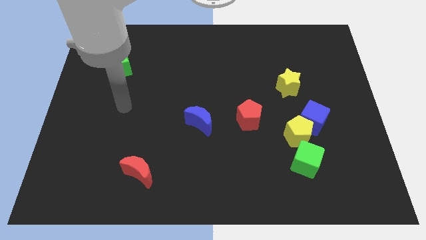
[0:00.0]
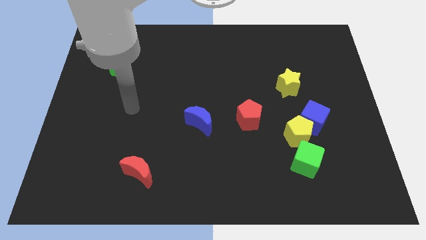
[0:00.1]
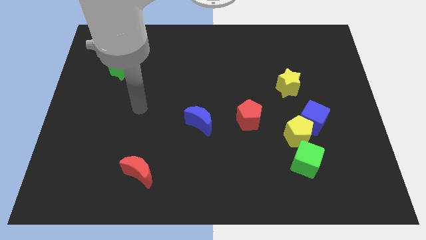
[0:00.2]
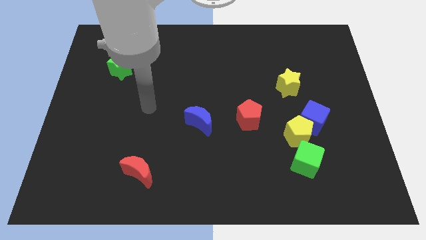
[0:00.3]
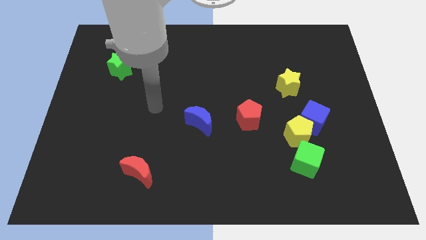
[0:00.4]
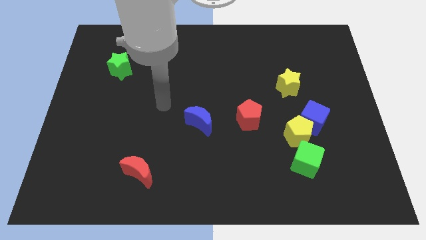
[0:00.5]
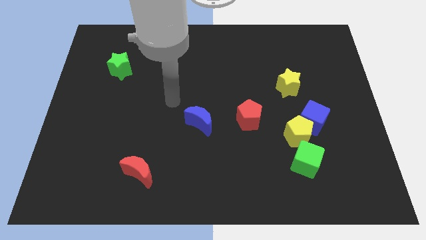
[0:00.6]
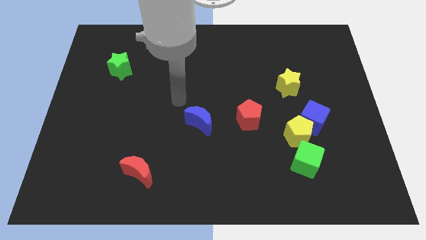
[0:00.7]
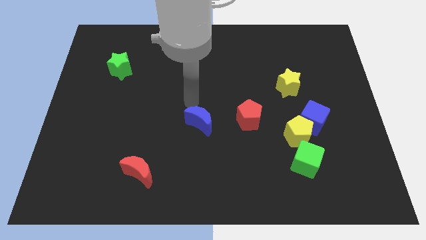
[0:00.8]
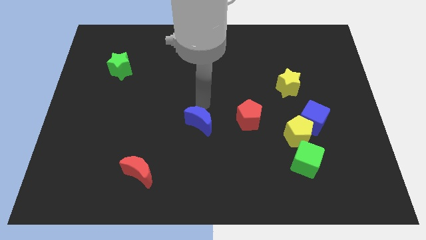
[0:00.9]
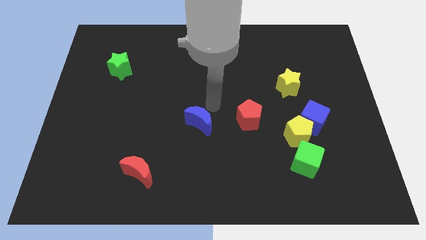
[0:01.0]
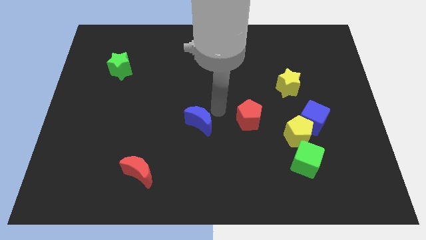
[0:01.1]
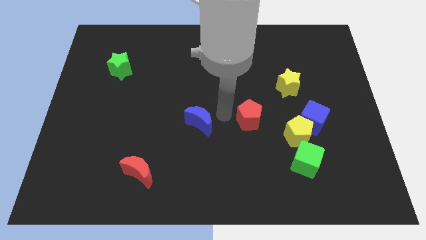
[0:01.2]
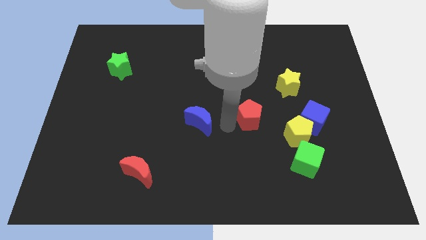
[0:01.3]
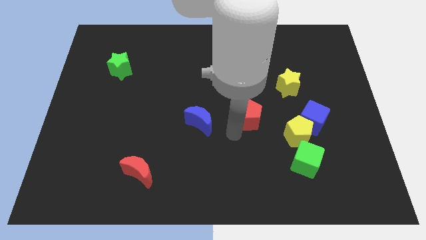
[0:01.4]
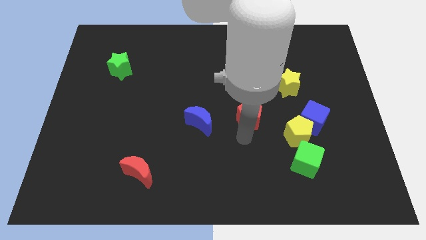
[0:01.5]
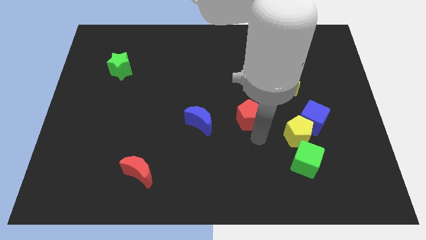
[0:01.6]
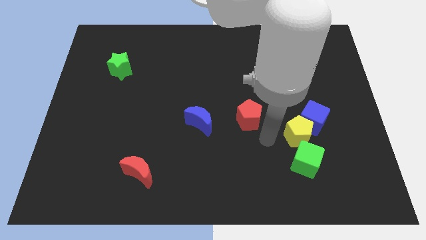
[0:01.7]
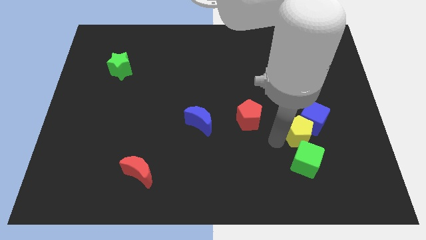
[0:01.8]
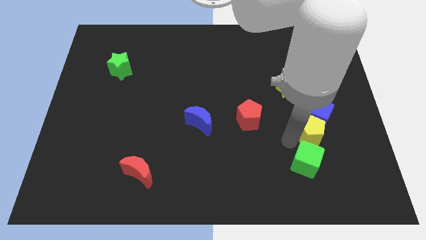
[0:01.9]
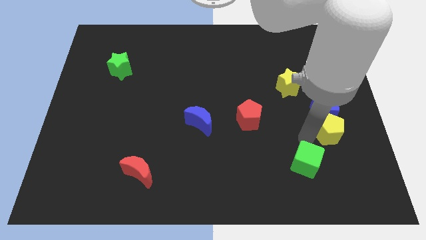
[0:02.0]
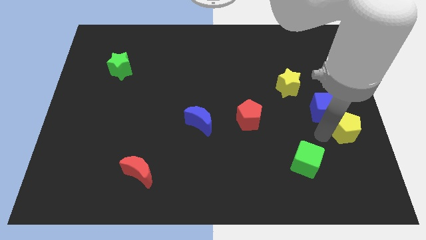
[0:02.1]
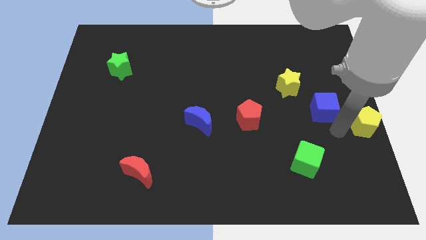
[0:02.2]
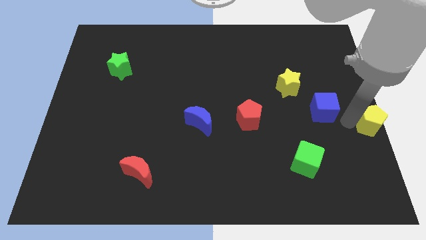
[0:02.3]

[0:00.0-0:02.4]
move the blue cube away from the yellow pentagon

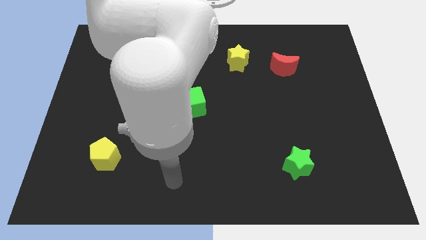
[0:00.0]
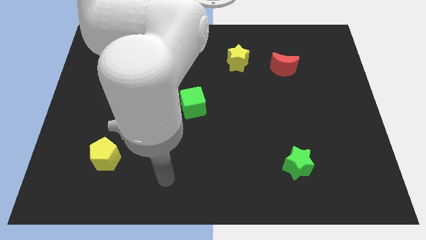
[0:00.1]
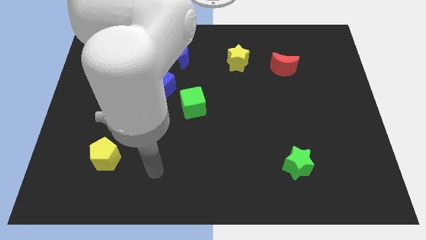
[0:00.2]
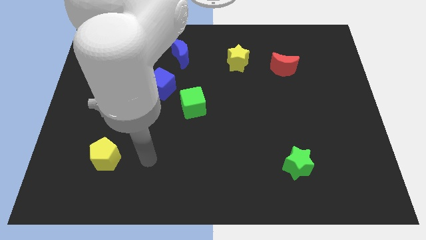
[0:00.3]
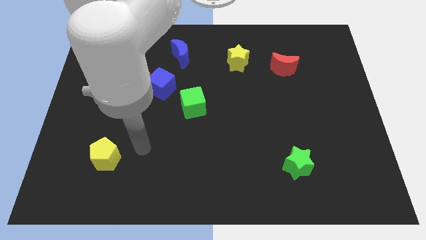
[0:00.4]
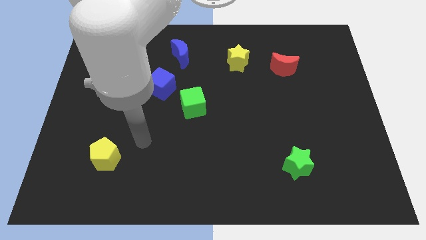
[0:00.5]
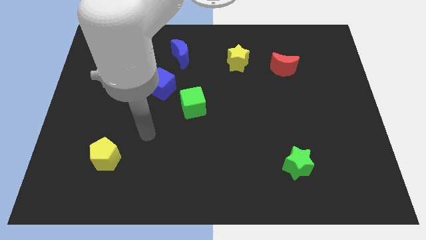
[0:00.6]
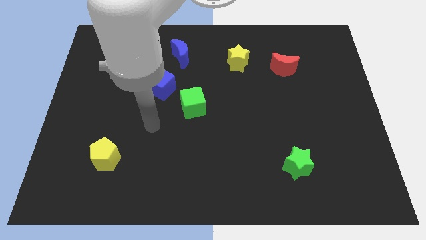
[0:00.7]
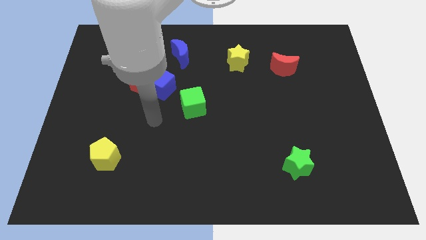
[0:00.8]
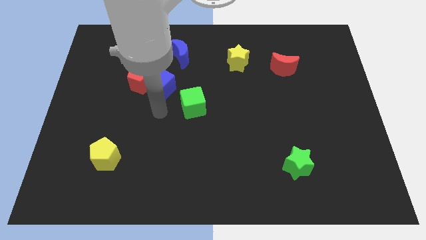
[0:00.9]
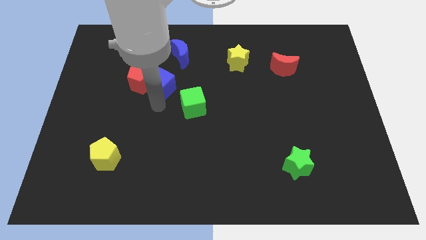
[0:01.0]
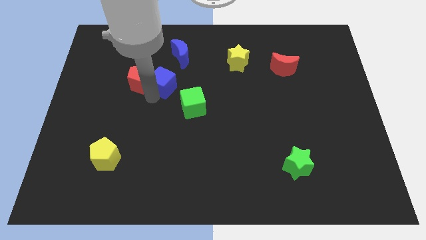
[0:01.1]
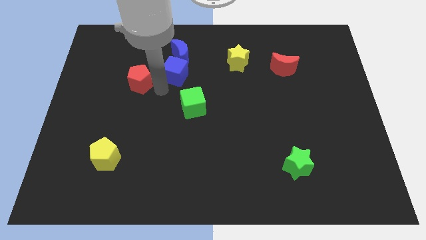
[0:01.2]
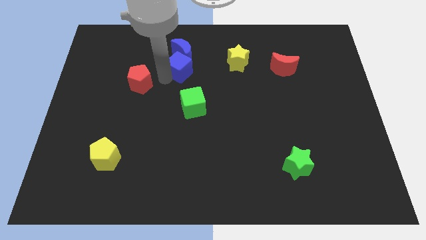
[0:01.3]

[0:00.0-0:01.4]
separate the red pentagon from the blue cube

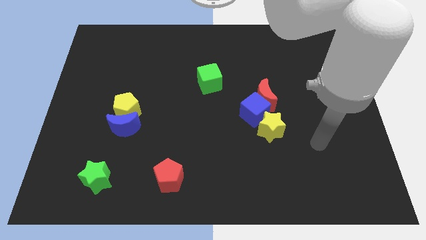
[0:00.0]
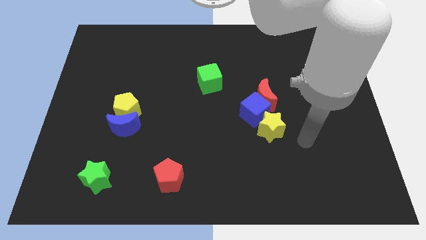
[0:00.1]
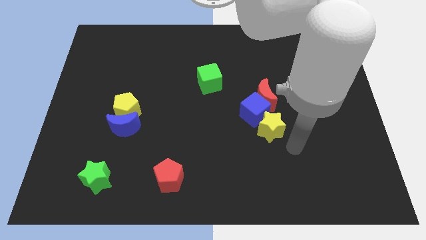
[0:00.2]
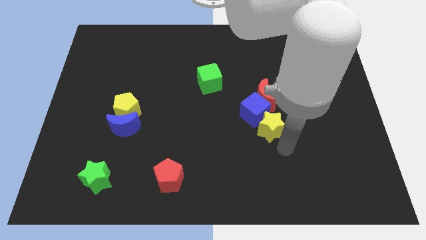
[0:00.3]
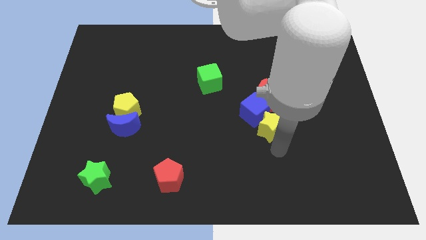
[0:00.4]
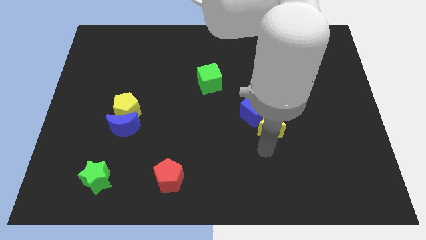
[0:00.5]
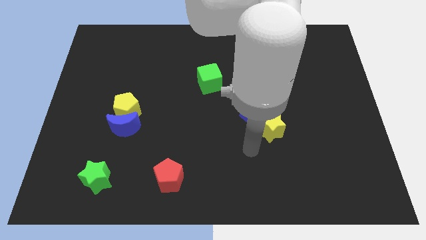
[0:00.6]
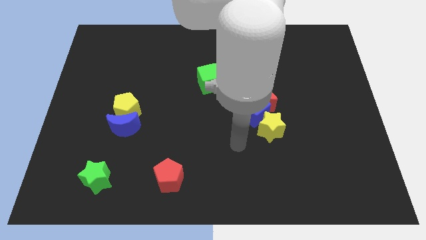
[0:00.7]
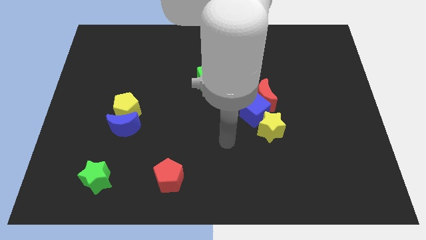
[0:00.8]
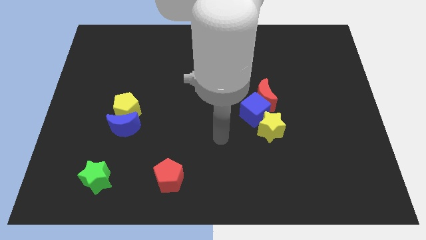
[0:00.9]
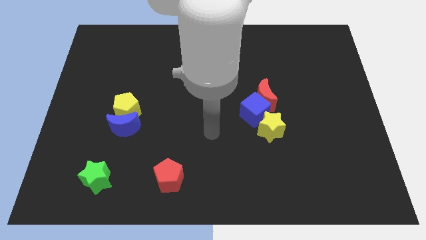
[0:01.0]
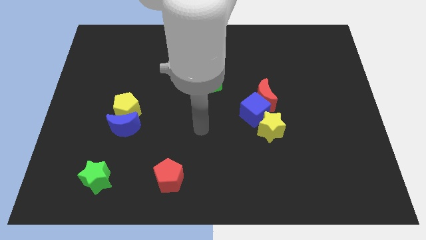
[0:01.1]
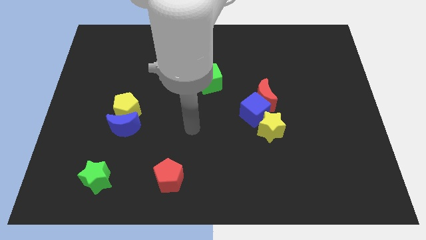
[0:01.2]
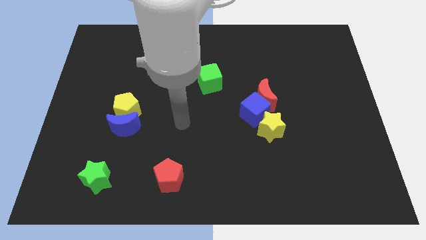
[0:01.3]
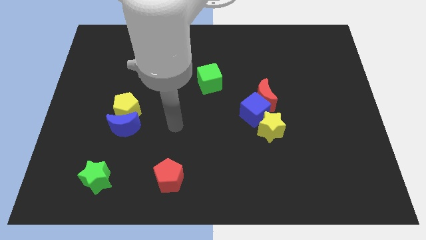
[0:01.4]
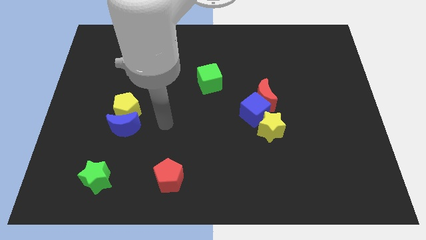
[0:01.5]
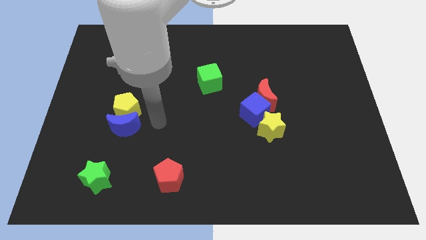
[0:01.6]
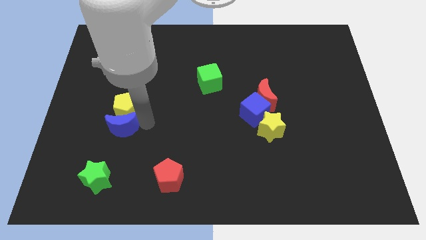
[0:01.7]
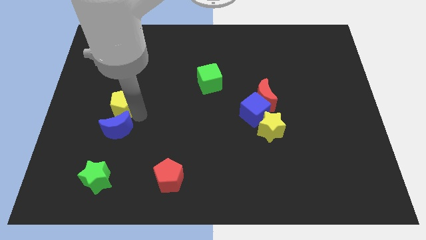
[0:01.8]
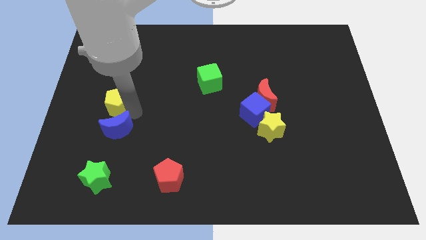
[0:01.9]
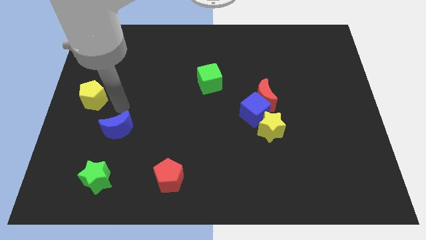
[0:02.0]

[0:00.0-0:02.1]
pull the blue moon apart from the yellow pentagon

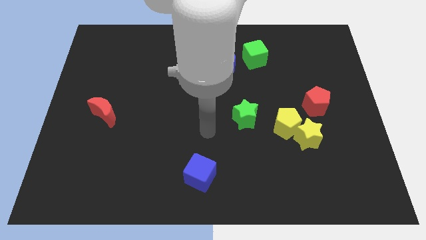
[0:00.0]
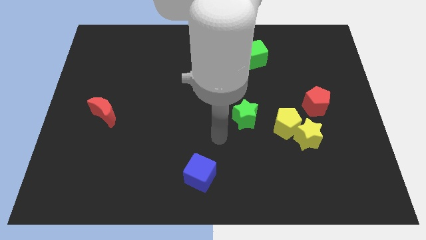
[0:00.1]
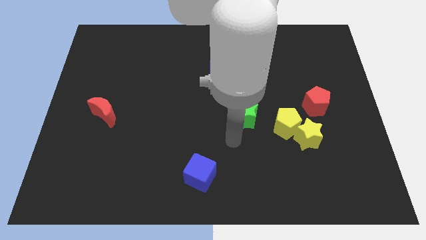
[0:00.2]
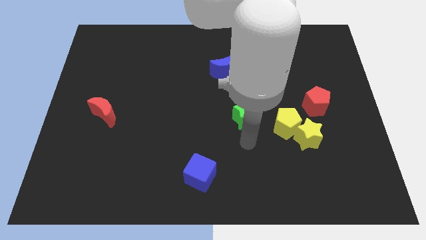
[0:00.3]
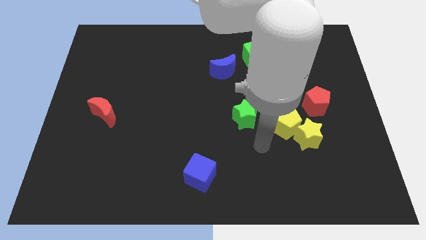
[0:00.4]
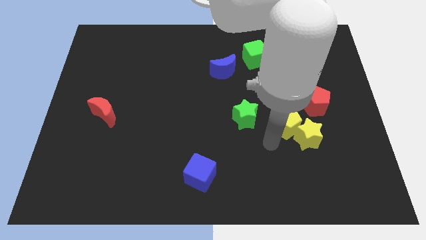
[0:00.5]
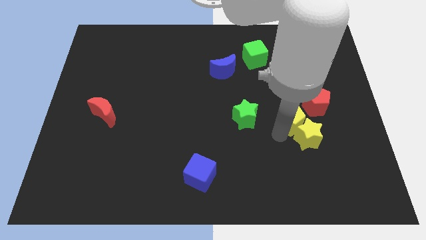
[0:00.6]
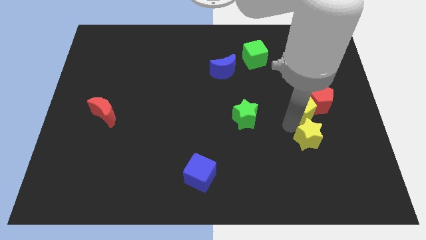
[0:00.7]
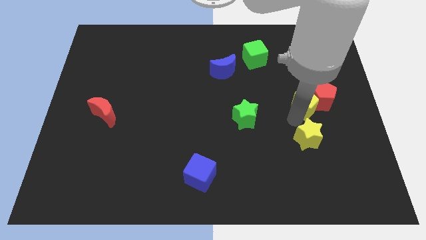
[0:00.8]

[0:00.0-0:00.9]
separate the yellow star from the yellow pentagon and red pentagon

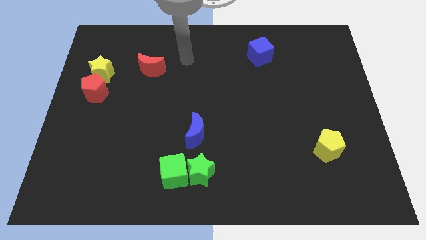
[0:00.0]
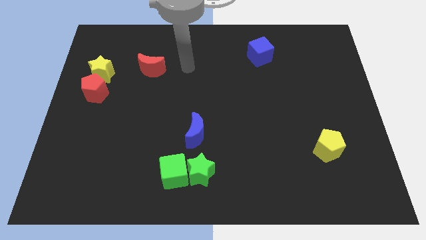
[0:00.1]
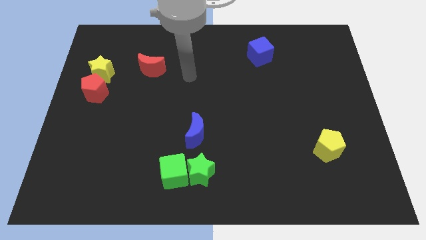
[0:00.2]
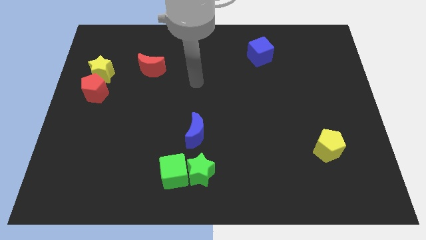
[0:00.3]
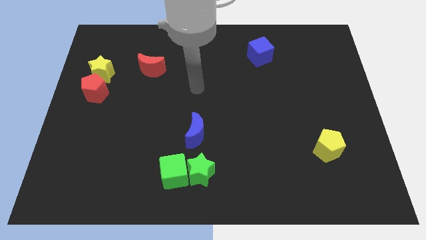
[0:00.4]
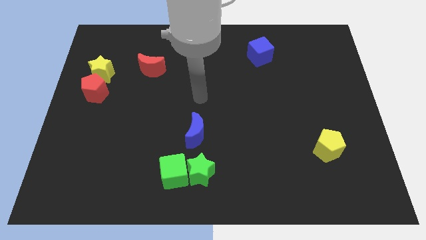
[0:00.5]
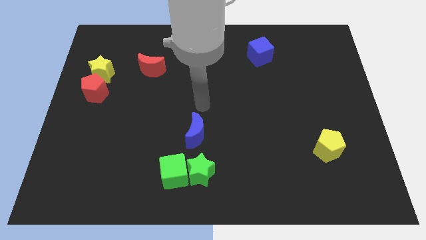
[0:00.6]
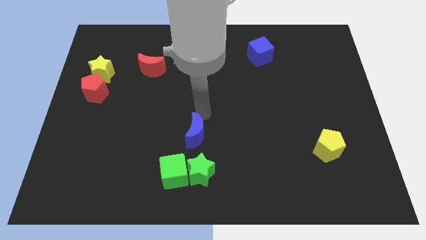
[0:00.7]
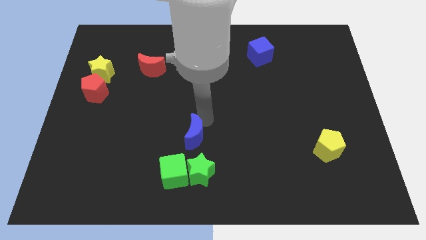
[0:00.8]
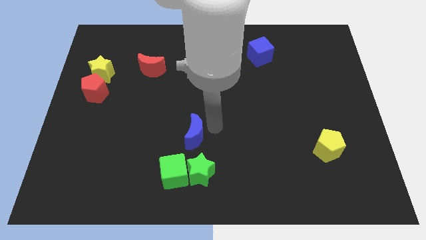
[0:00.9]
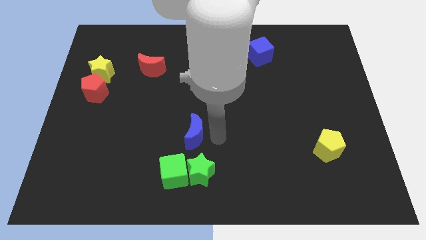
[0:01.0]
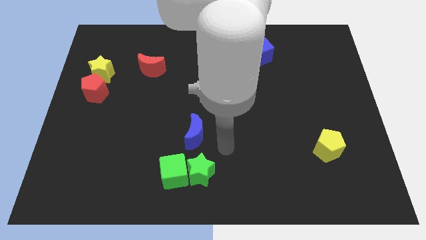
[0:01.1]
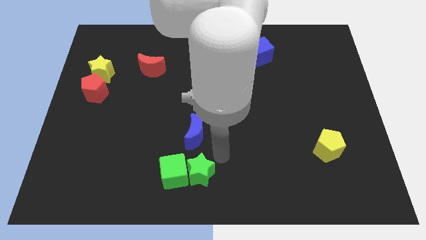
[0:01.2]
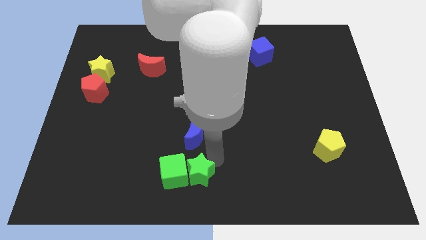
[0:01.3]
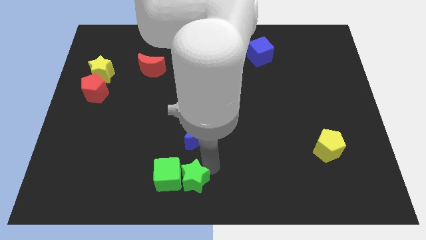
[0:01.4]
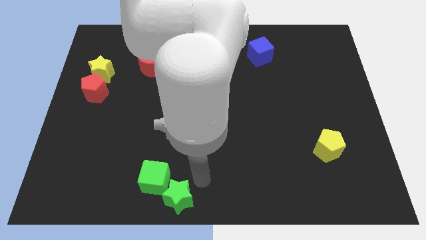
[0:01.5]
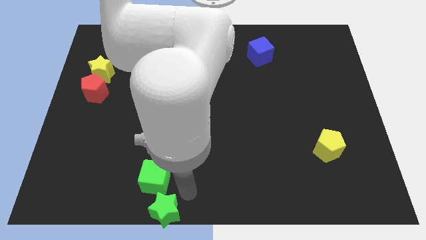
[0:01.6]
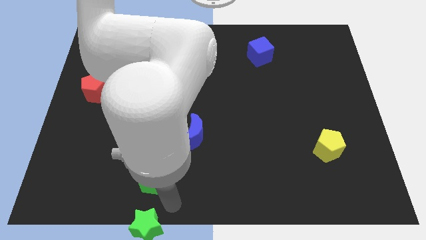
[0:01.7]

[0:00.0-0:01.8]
pull the green cube apart from the green star

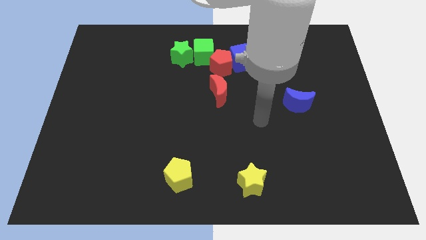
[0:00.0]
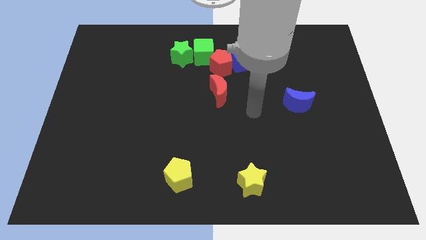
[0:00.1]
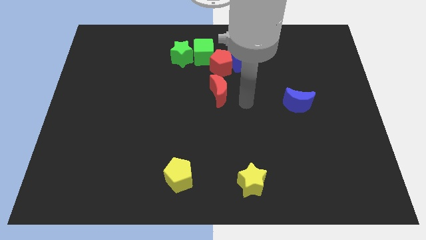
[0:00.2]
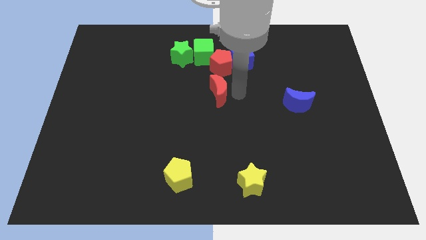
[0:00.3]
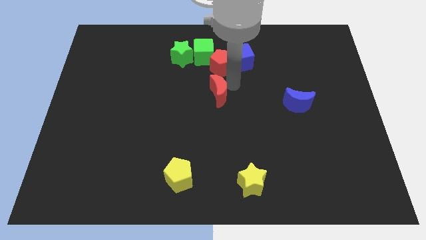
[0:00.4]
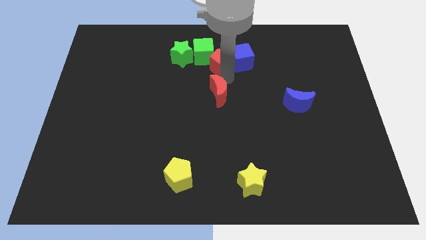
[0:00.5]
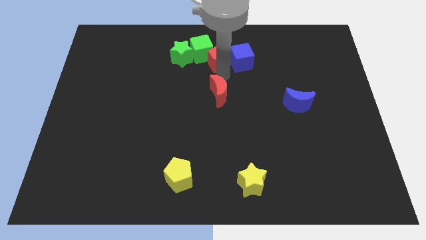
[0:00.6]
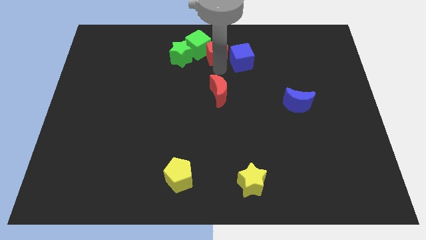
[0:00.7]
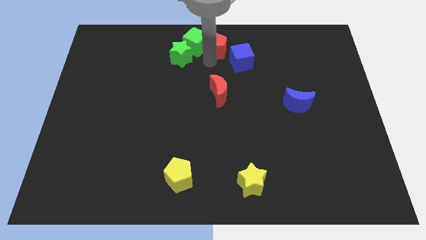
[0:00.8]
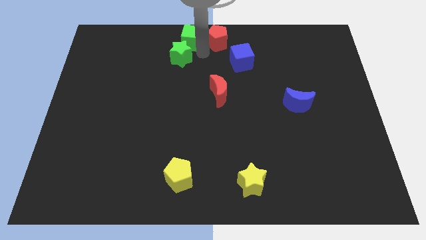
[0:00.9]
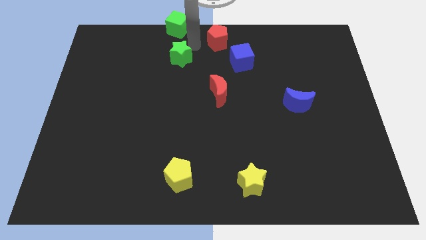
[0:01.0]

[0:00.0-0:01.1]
separate the green star from the green cube
